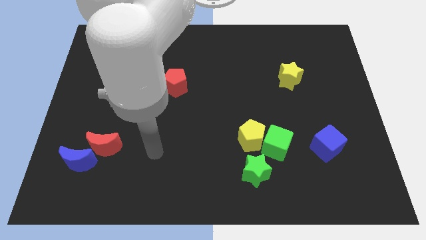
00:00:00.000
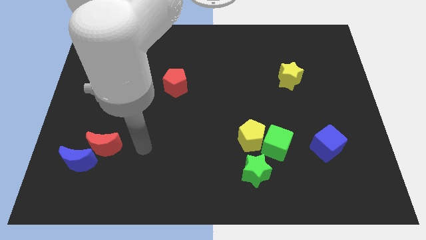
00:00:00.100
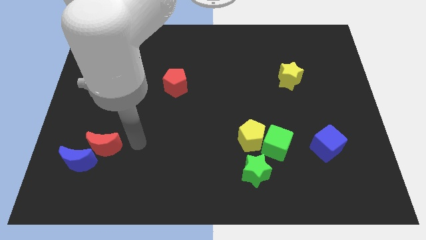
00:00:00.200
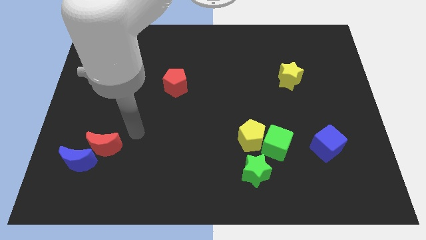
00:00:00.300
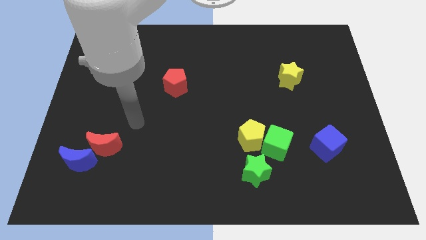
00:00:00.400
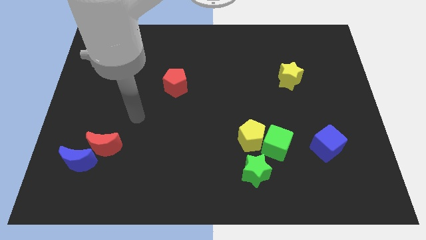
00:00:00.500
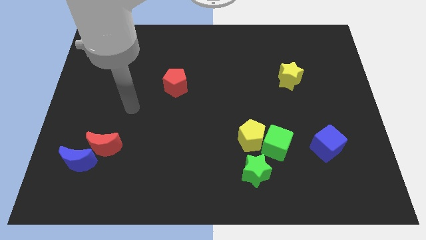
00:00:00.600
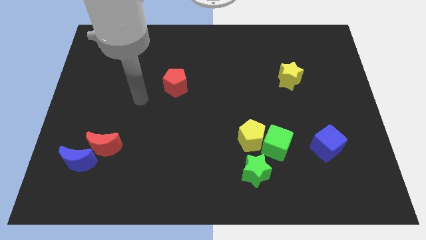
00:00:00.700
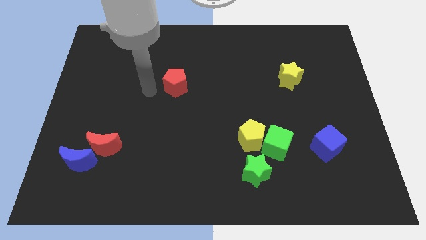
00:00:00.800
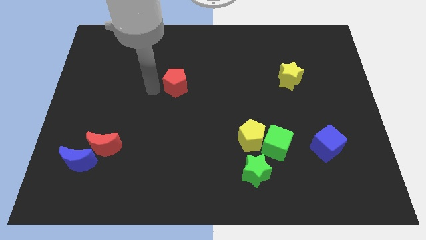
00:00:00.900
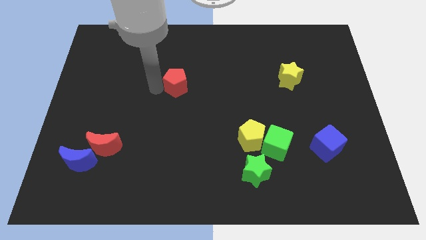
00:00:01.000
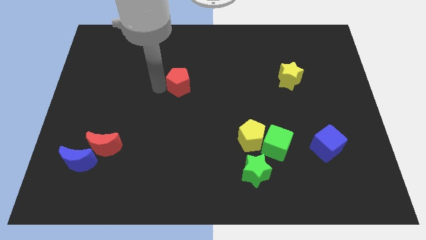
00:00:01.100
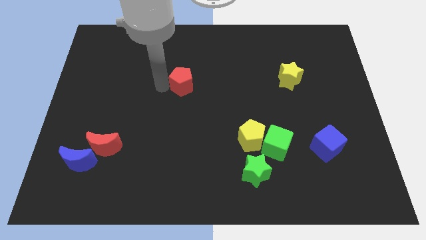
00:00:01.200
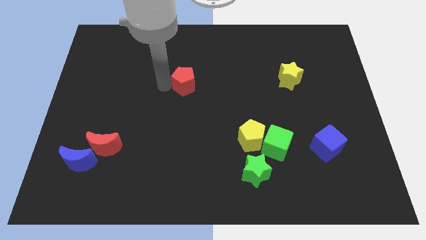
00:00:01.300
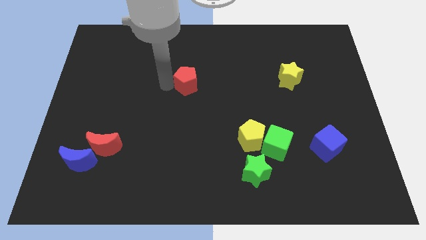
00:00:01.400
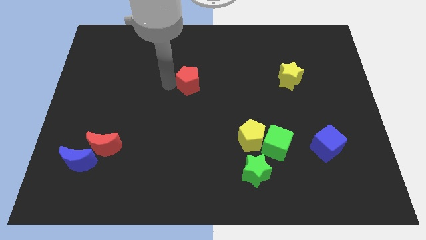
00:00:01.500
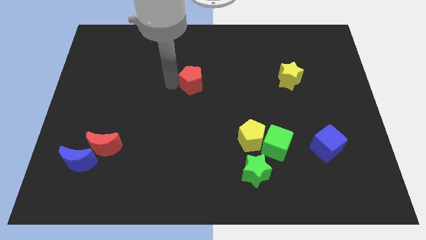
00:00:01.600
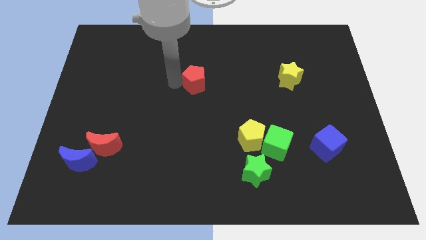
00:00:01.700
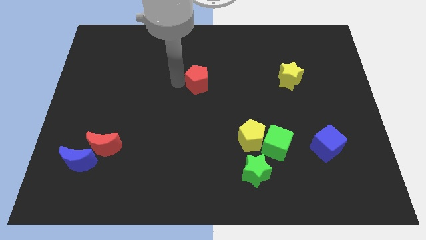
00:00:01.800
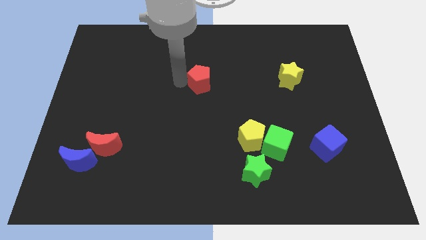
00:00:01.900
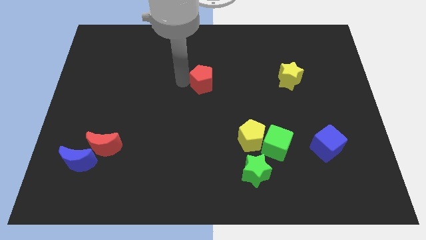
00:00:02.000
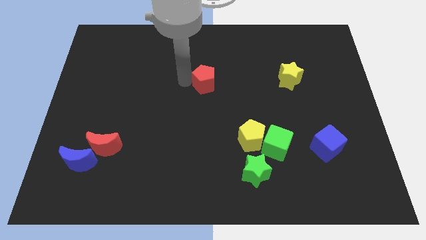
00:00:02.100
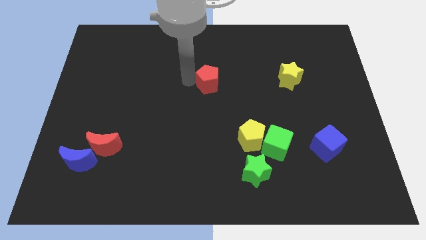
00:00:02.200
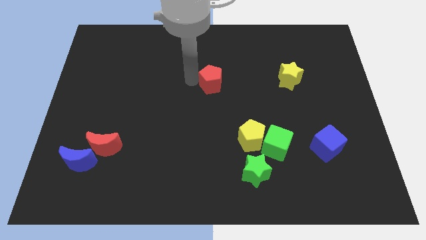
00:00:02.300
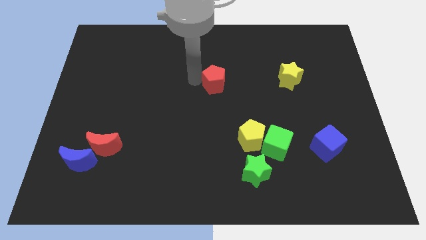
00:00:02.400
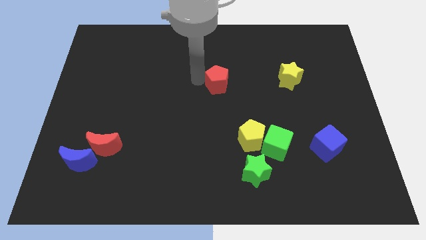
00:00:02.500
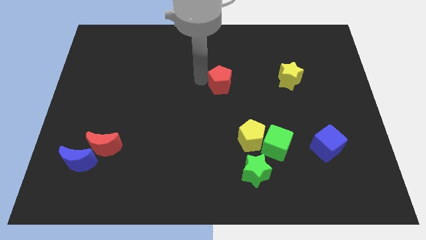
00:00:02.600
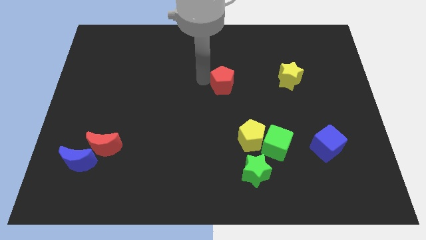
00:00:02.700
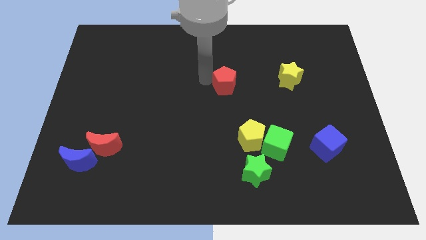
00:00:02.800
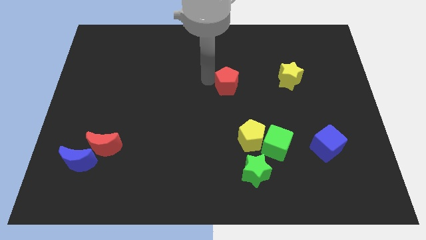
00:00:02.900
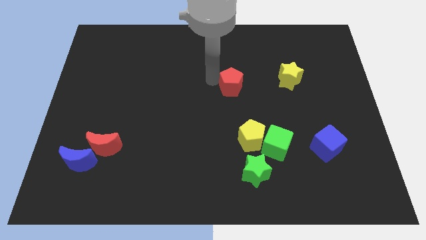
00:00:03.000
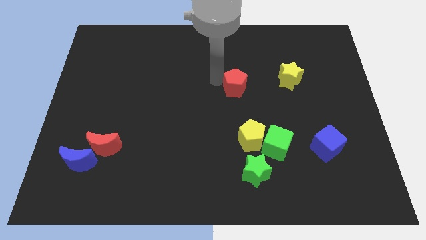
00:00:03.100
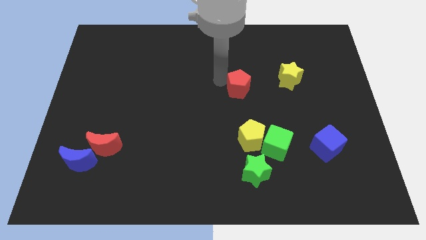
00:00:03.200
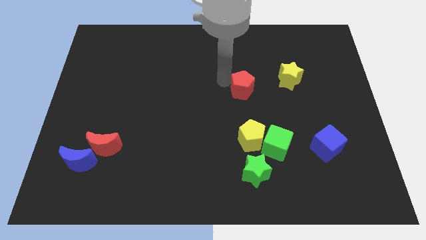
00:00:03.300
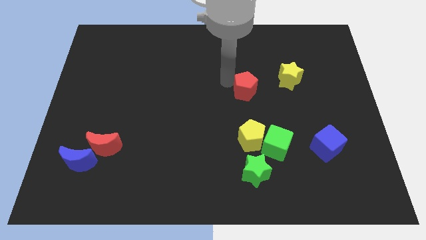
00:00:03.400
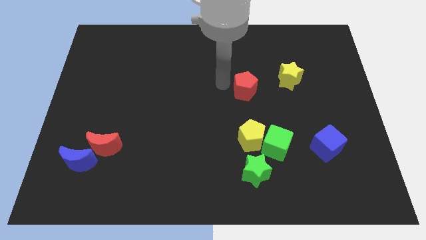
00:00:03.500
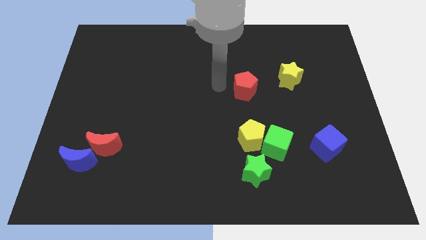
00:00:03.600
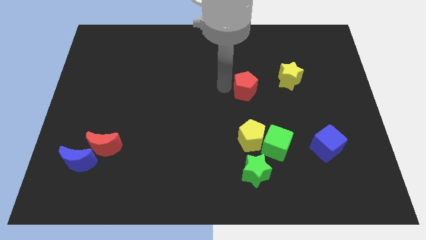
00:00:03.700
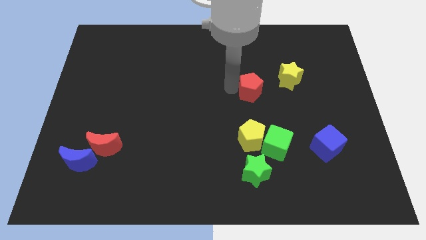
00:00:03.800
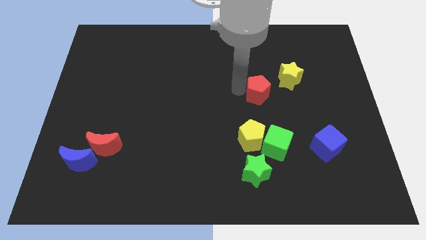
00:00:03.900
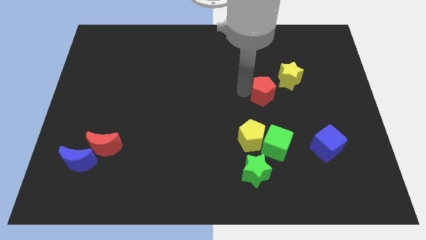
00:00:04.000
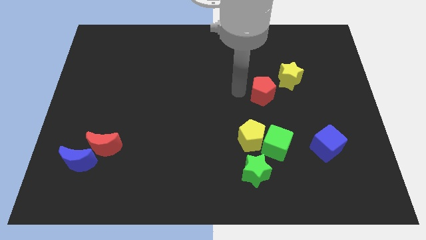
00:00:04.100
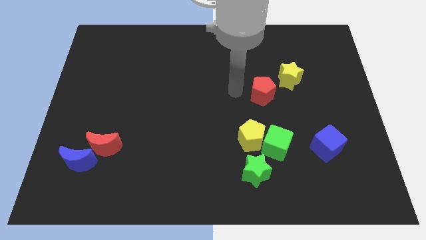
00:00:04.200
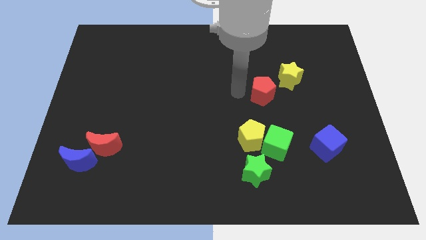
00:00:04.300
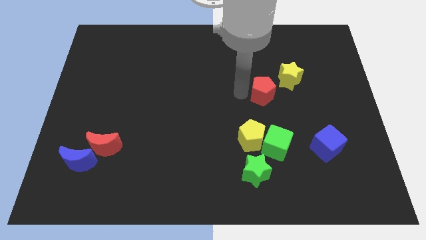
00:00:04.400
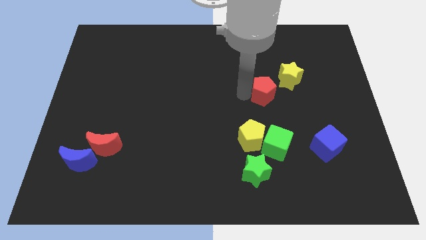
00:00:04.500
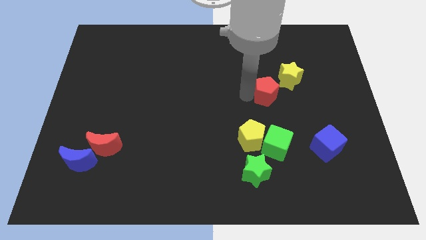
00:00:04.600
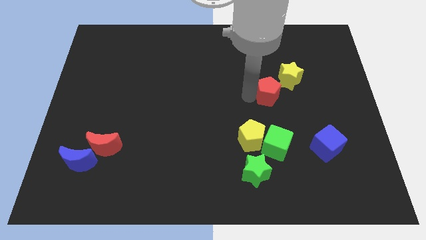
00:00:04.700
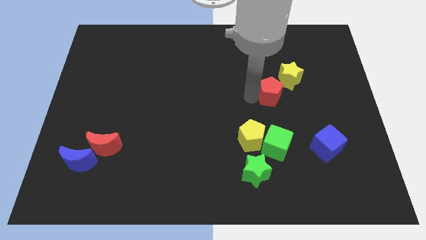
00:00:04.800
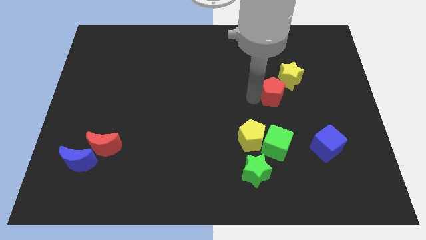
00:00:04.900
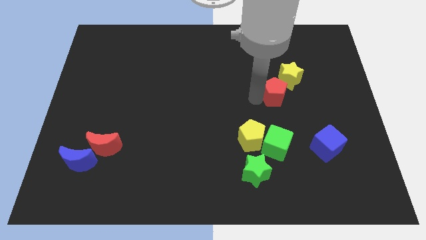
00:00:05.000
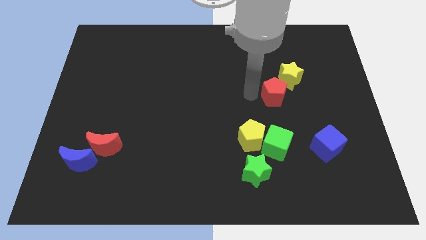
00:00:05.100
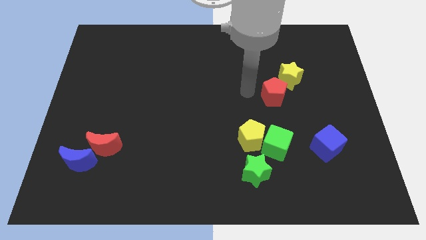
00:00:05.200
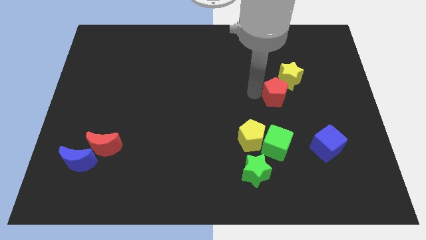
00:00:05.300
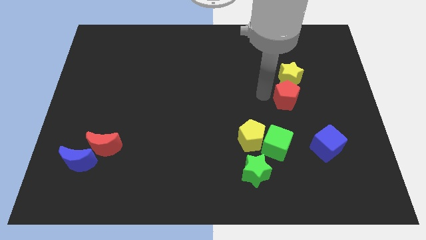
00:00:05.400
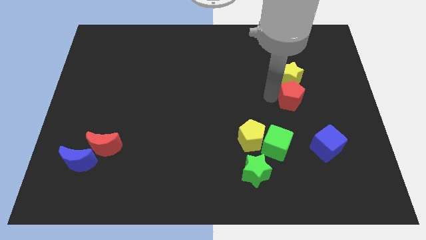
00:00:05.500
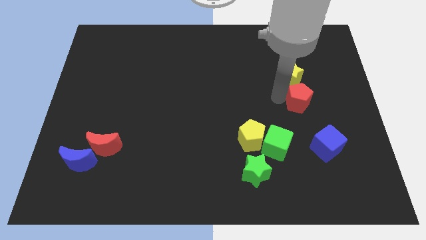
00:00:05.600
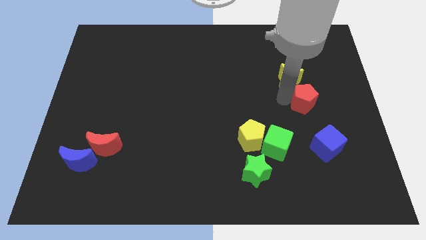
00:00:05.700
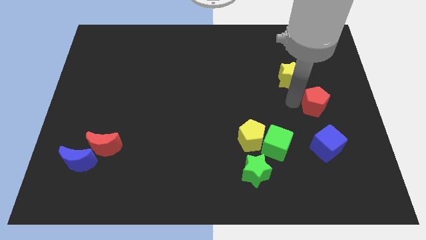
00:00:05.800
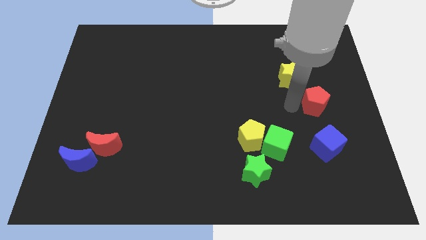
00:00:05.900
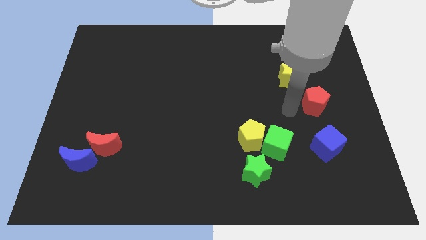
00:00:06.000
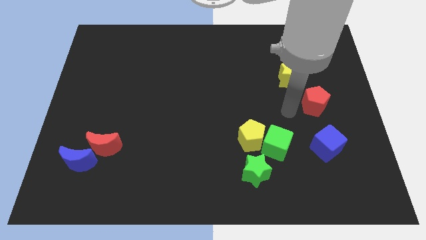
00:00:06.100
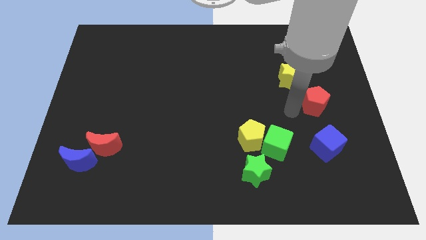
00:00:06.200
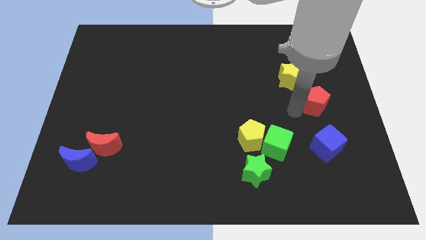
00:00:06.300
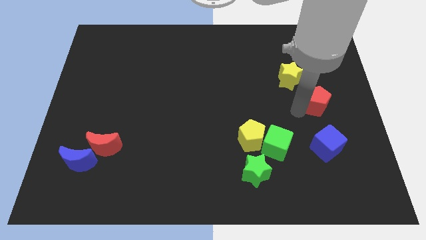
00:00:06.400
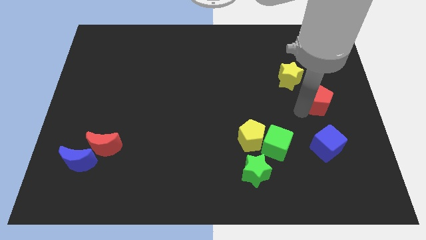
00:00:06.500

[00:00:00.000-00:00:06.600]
slide the red pentagon to the right side of the board
